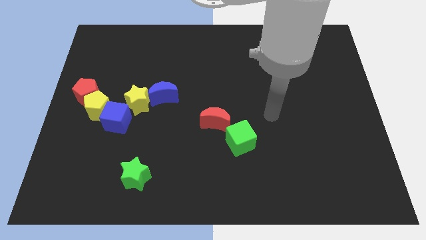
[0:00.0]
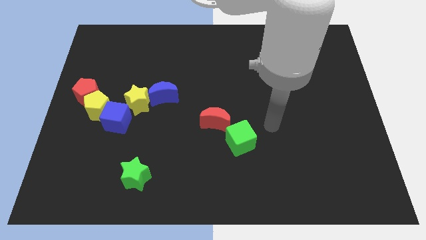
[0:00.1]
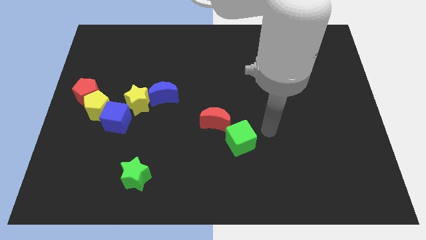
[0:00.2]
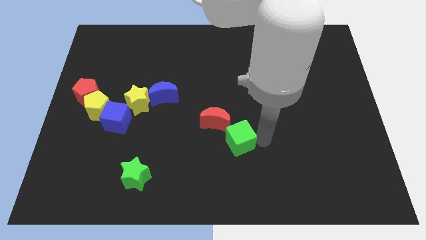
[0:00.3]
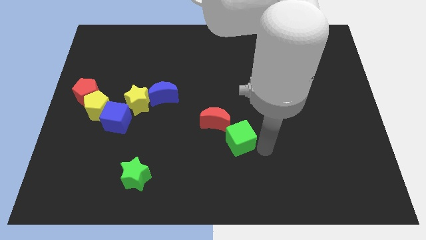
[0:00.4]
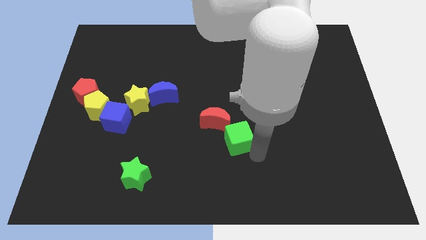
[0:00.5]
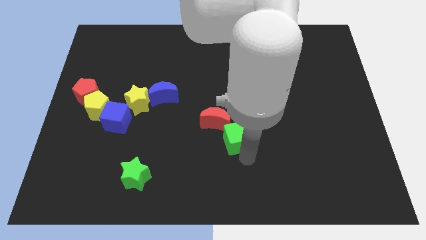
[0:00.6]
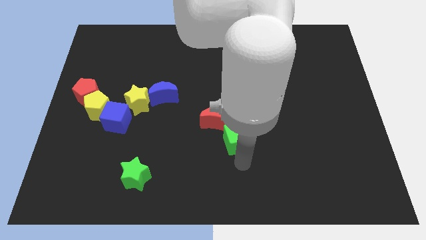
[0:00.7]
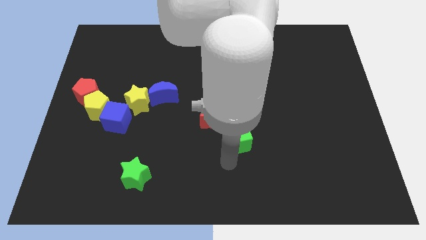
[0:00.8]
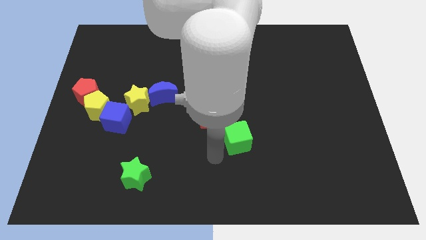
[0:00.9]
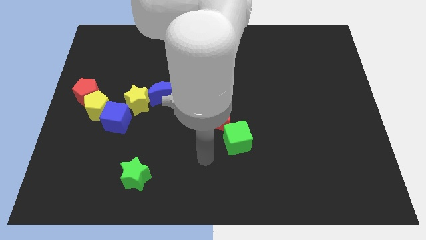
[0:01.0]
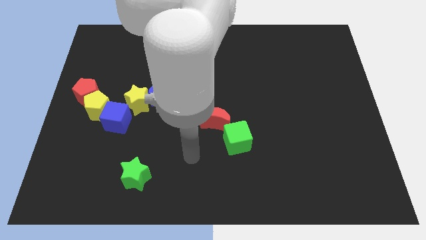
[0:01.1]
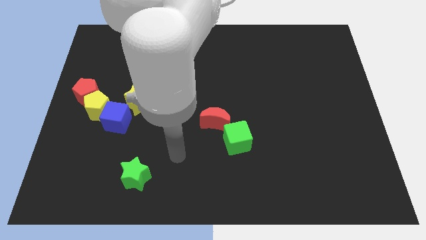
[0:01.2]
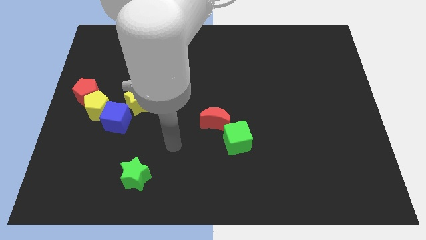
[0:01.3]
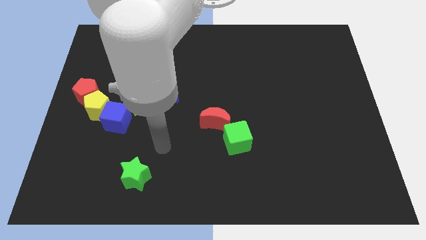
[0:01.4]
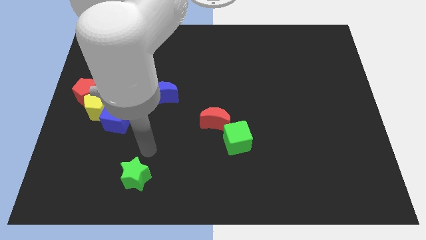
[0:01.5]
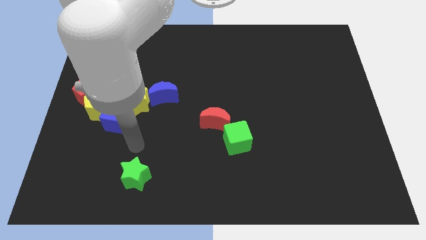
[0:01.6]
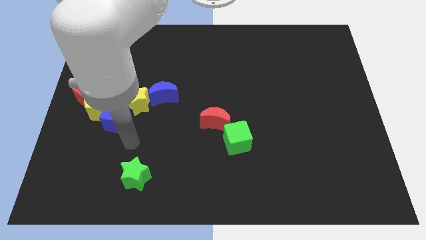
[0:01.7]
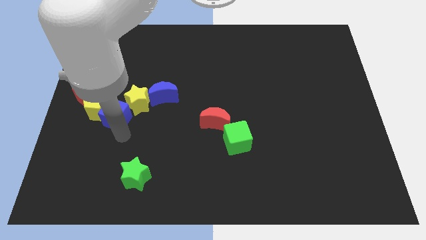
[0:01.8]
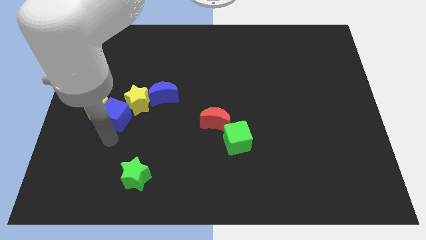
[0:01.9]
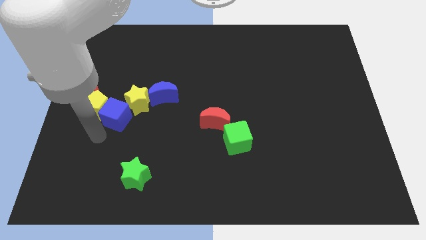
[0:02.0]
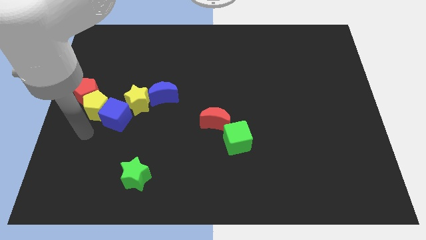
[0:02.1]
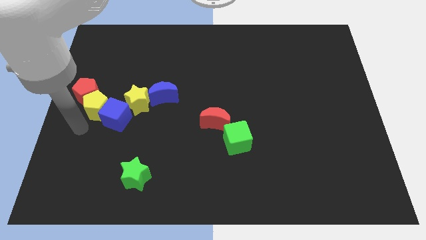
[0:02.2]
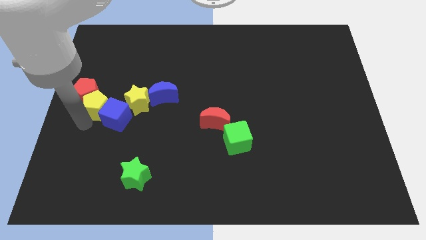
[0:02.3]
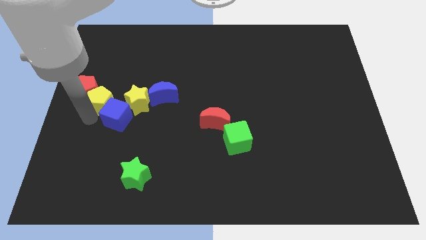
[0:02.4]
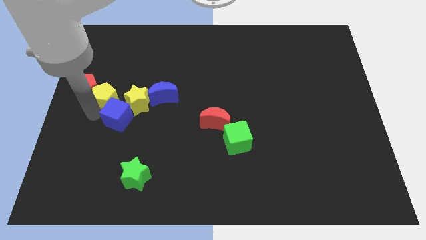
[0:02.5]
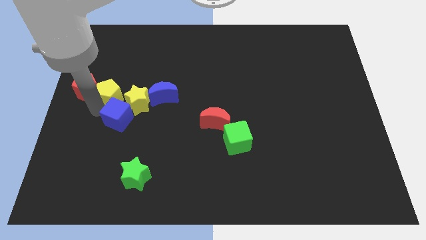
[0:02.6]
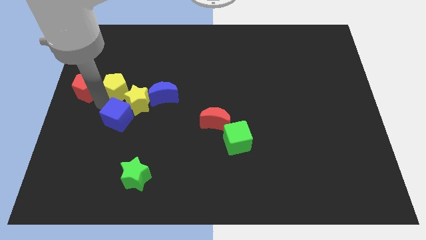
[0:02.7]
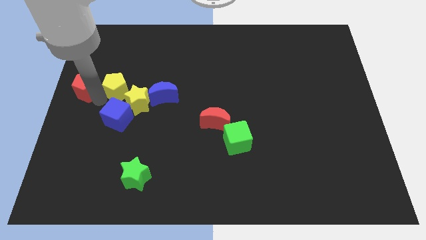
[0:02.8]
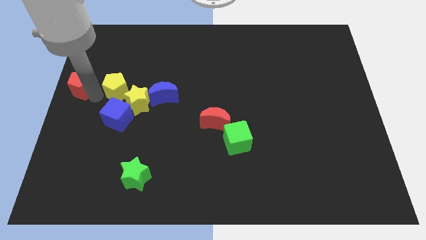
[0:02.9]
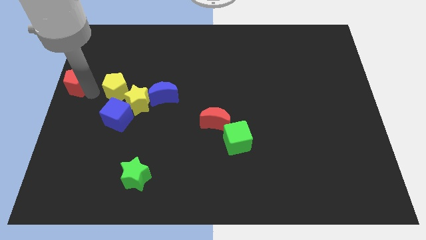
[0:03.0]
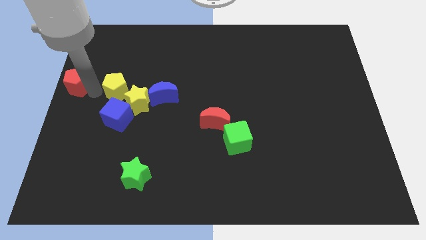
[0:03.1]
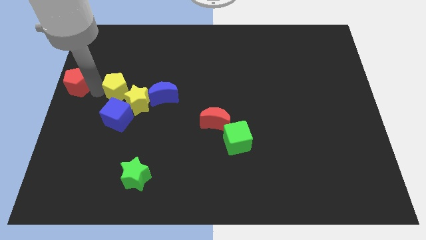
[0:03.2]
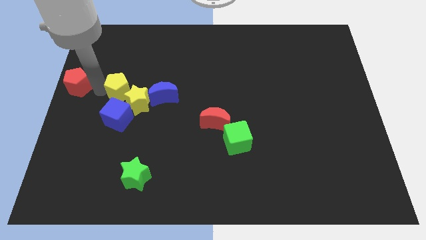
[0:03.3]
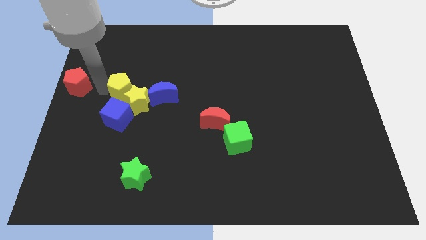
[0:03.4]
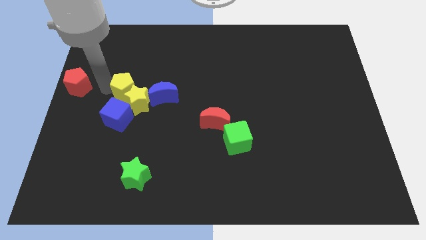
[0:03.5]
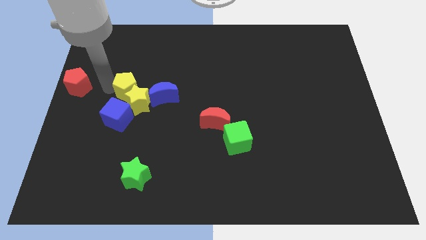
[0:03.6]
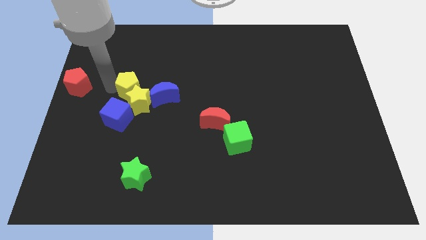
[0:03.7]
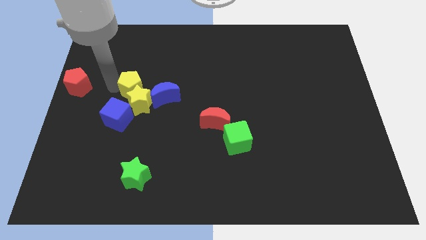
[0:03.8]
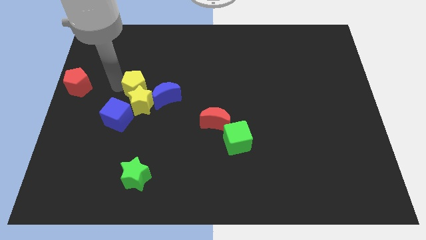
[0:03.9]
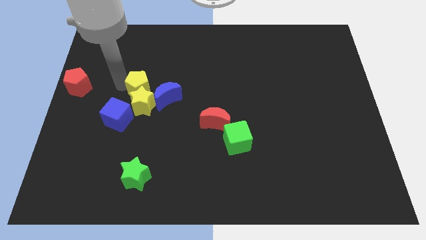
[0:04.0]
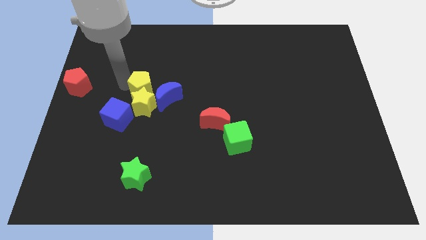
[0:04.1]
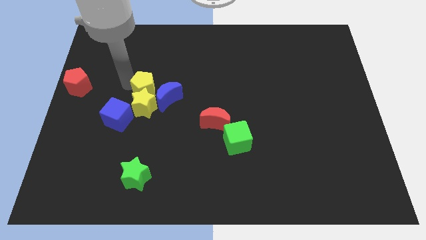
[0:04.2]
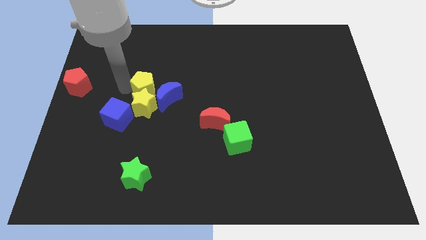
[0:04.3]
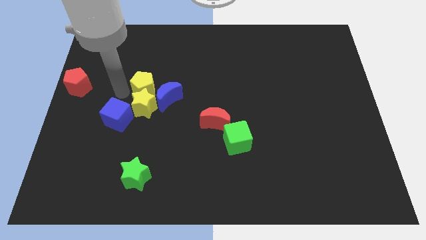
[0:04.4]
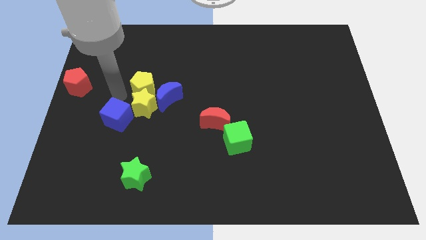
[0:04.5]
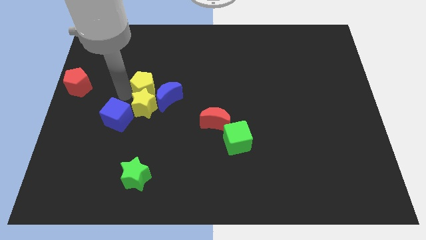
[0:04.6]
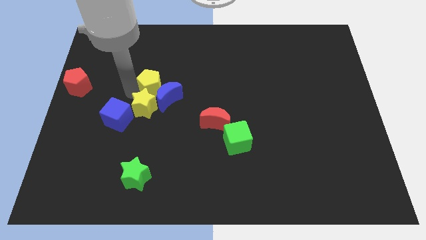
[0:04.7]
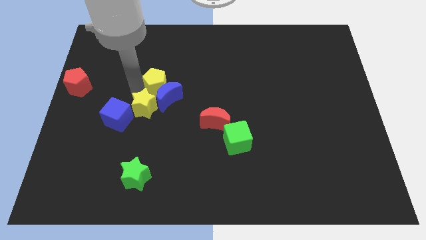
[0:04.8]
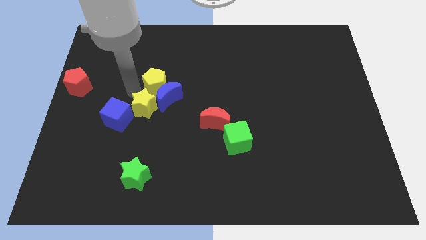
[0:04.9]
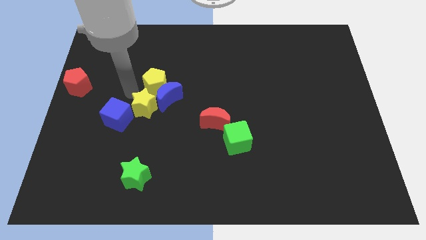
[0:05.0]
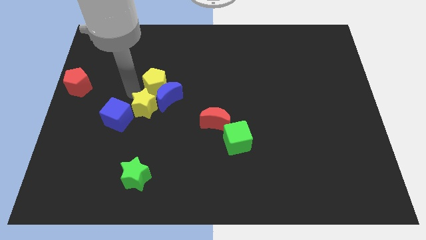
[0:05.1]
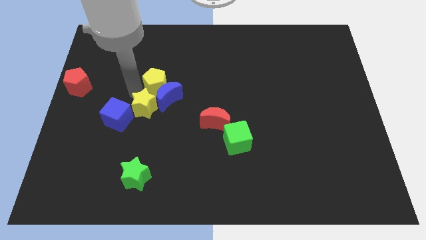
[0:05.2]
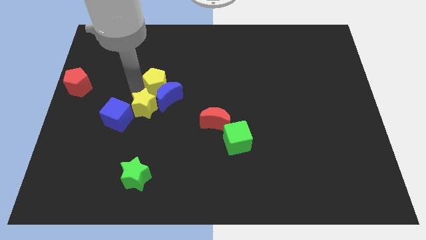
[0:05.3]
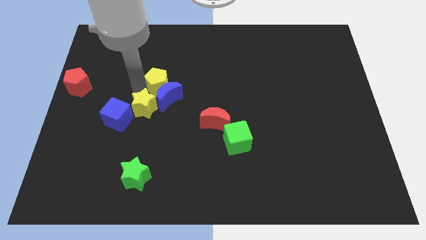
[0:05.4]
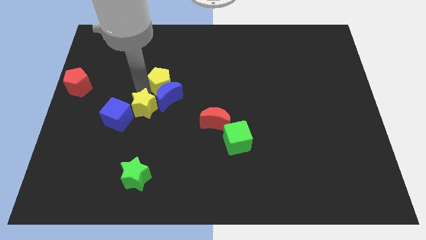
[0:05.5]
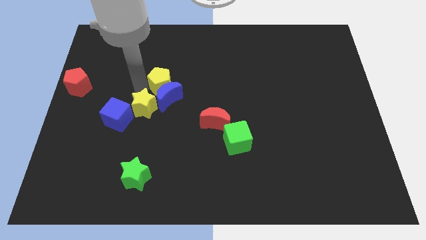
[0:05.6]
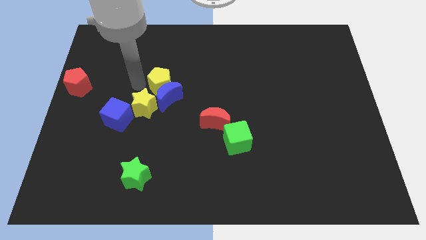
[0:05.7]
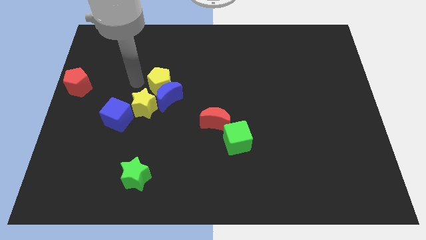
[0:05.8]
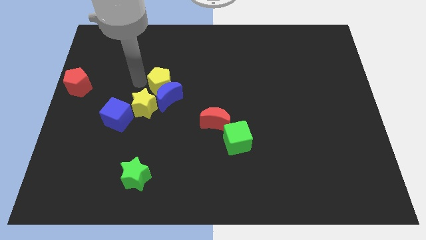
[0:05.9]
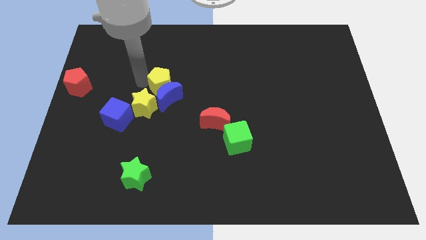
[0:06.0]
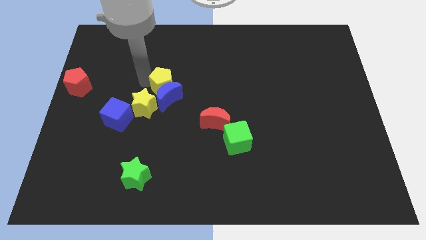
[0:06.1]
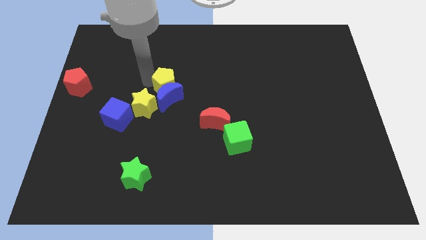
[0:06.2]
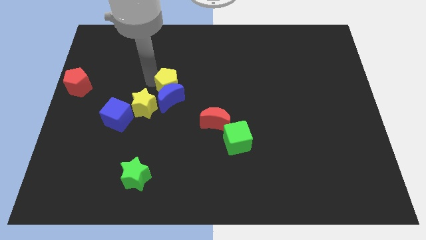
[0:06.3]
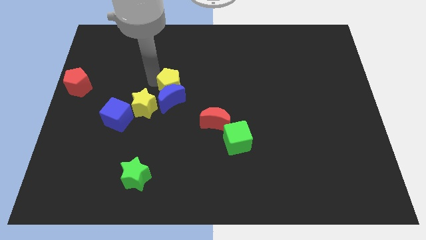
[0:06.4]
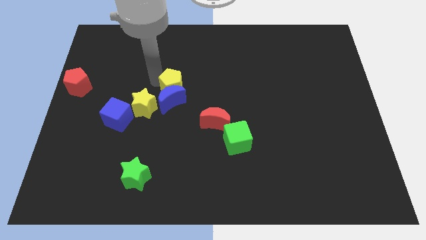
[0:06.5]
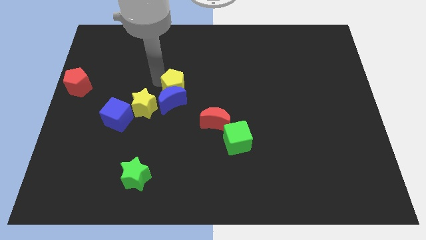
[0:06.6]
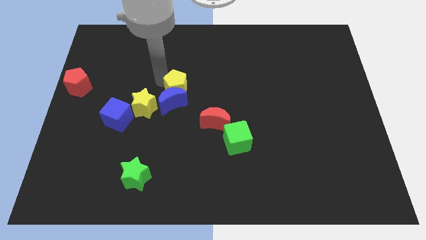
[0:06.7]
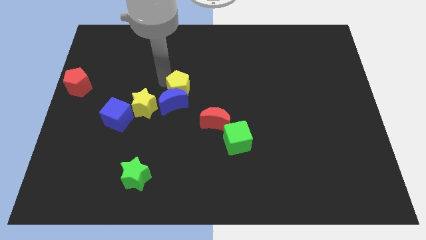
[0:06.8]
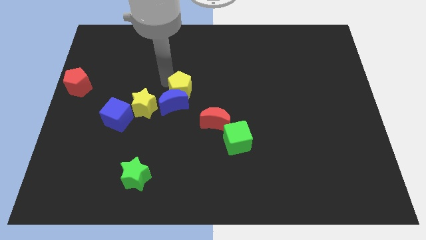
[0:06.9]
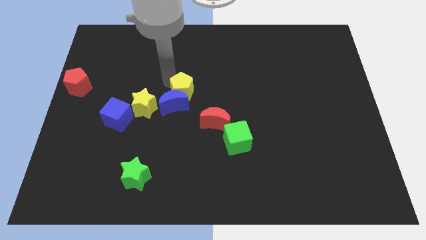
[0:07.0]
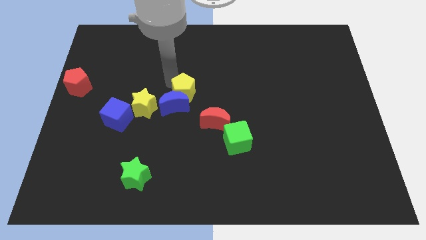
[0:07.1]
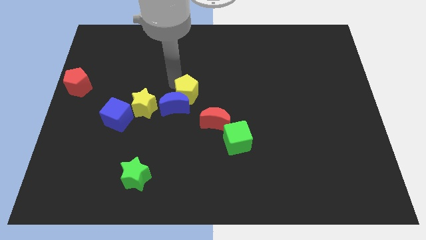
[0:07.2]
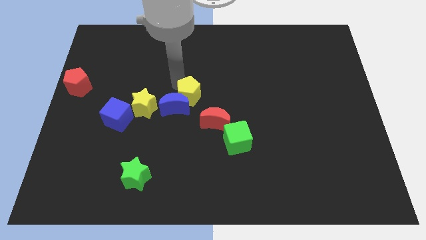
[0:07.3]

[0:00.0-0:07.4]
push the yellow pentagon right

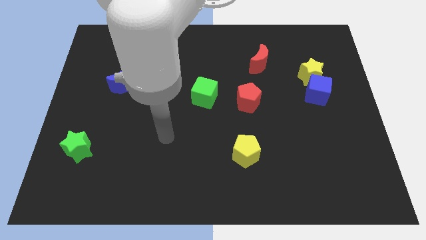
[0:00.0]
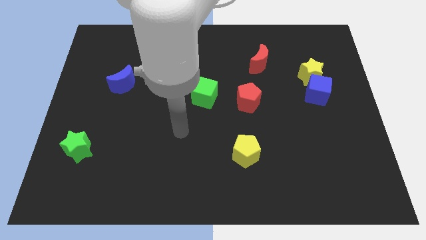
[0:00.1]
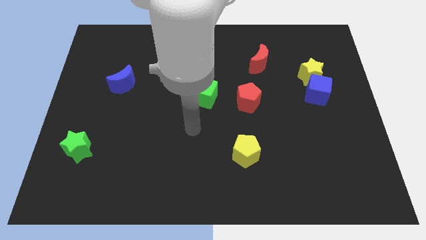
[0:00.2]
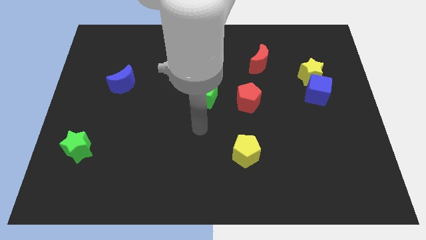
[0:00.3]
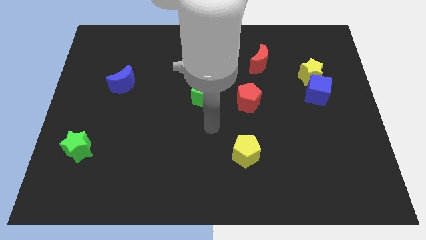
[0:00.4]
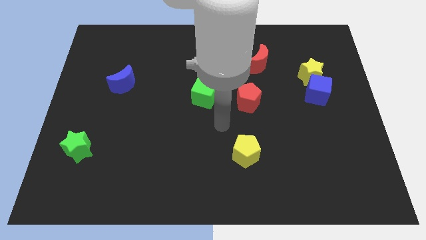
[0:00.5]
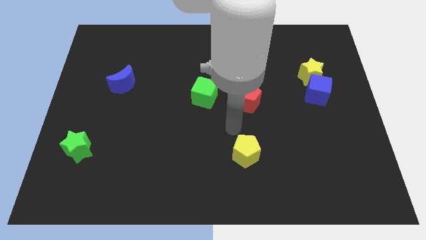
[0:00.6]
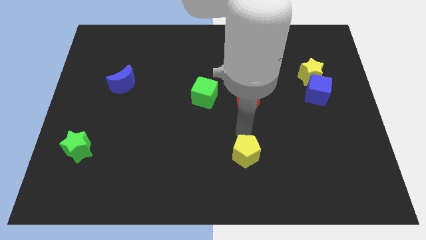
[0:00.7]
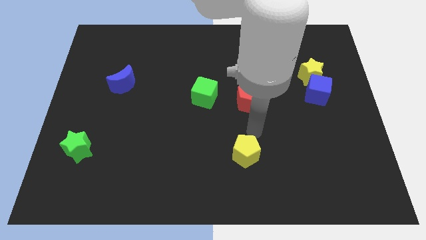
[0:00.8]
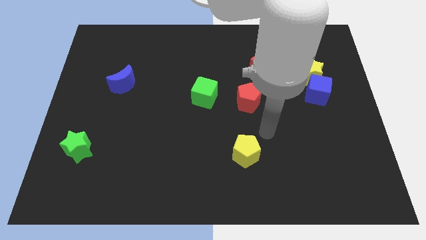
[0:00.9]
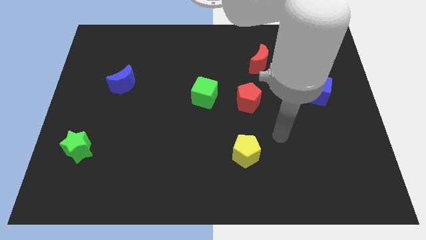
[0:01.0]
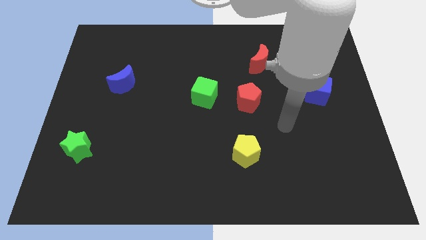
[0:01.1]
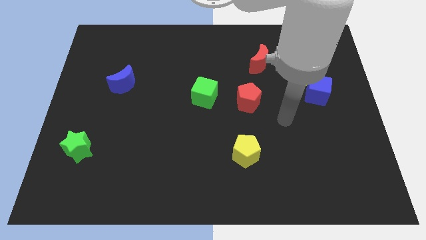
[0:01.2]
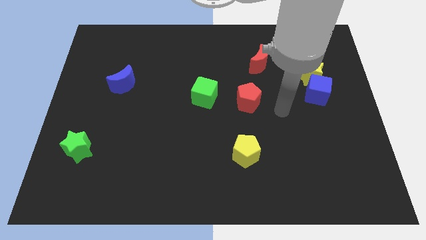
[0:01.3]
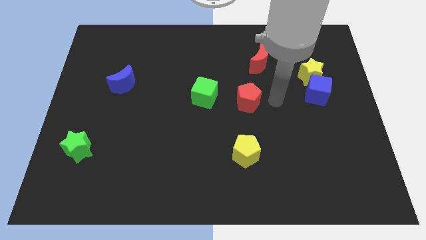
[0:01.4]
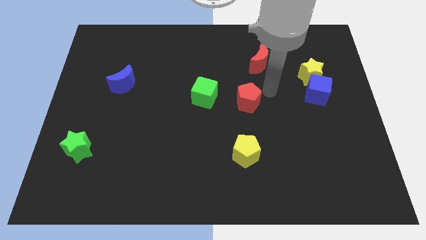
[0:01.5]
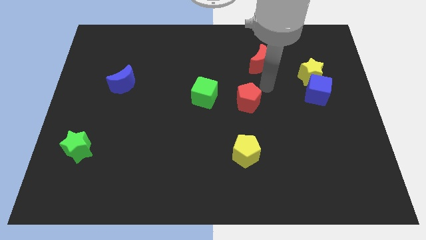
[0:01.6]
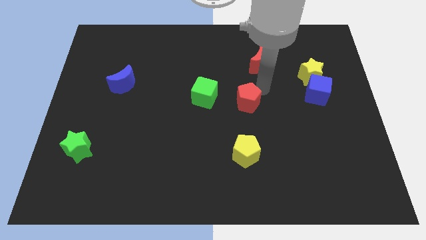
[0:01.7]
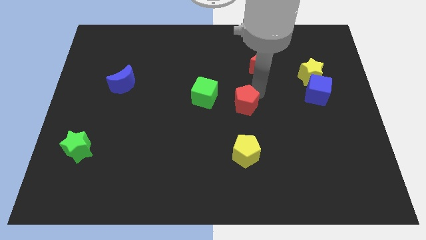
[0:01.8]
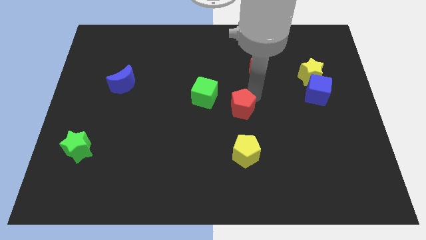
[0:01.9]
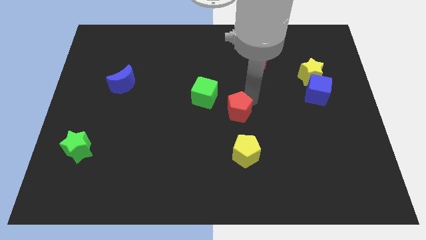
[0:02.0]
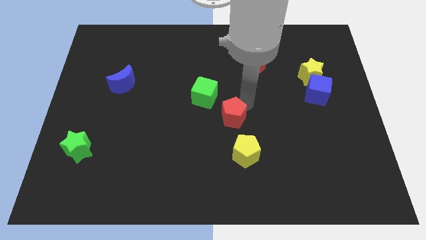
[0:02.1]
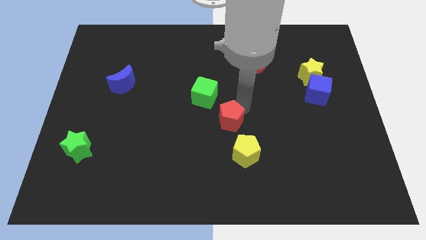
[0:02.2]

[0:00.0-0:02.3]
push the red pentagon down and to the left diagonally a bit
